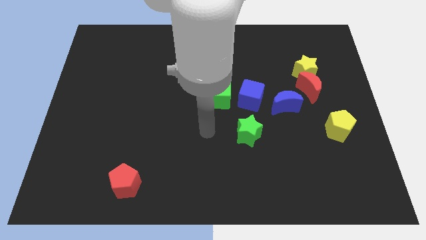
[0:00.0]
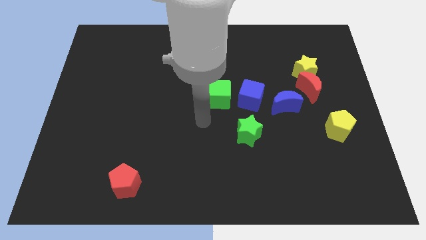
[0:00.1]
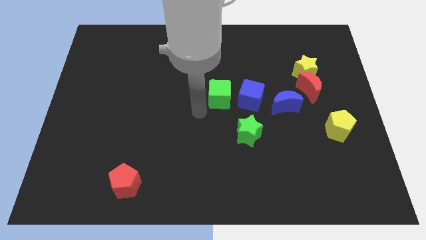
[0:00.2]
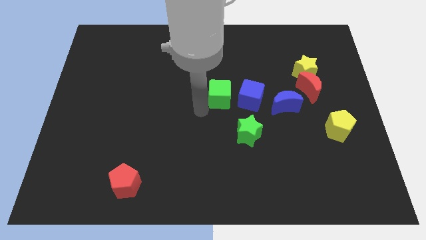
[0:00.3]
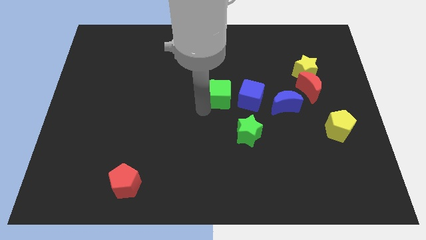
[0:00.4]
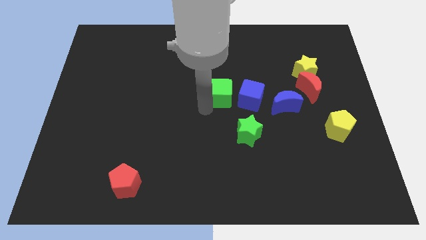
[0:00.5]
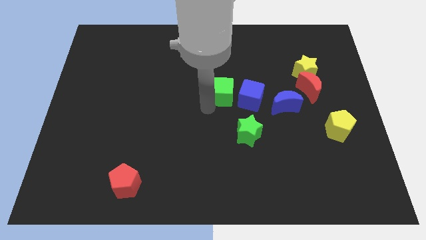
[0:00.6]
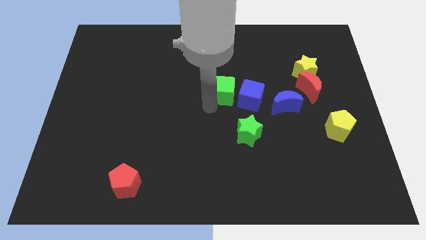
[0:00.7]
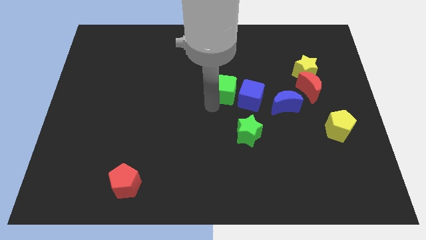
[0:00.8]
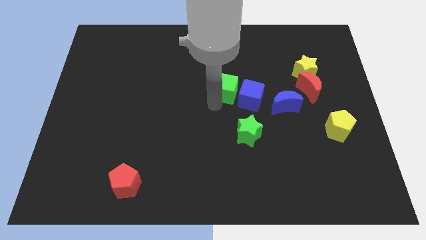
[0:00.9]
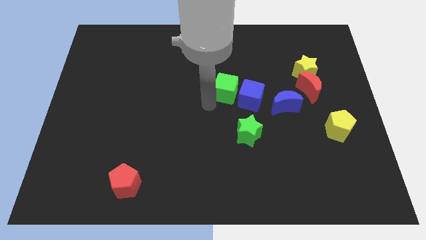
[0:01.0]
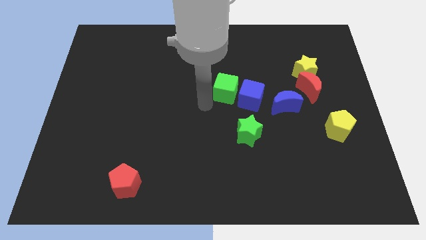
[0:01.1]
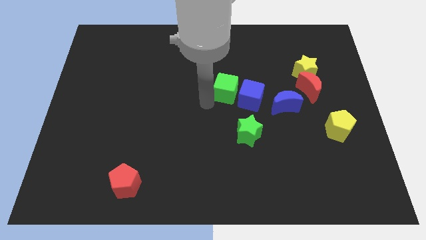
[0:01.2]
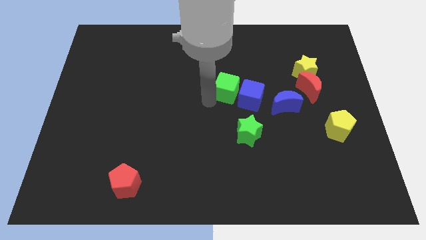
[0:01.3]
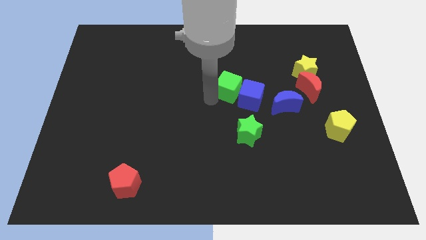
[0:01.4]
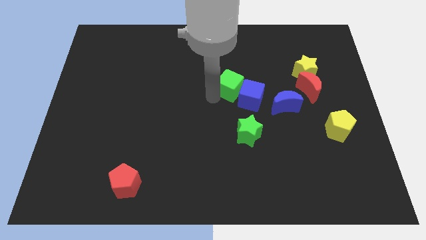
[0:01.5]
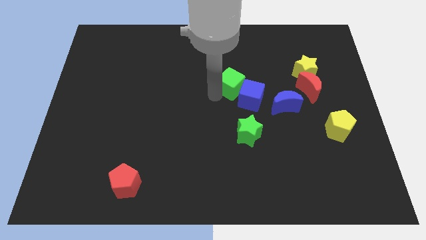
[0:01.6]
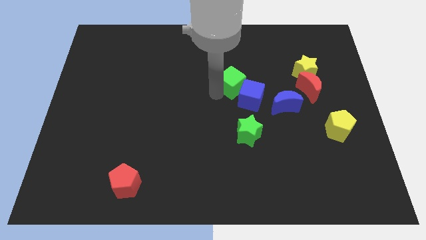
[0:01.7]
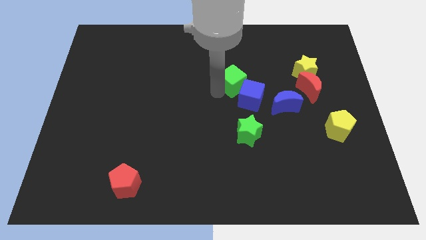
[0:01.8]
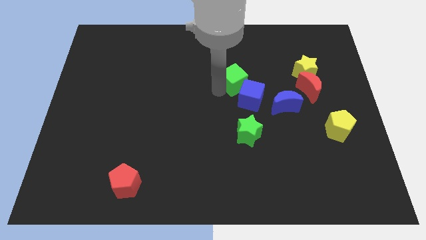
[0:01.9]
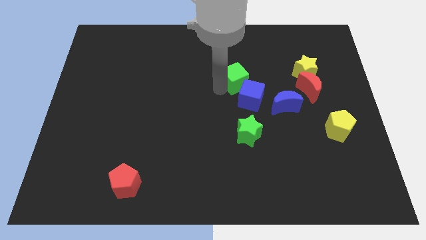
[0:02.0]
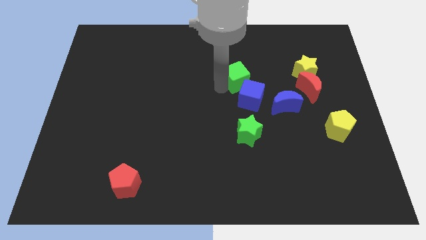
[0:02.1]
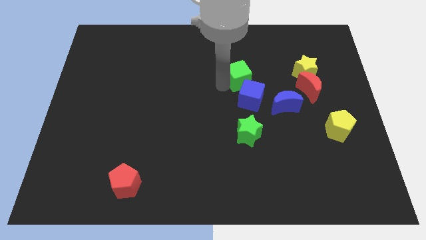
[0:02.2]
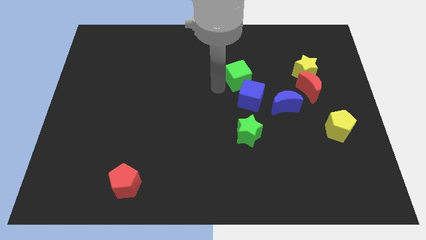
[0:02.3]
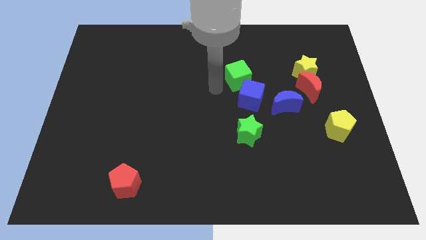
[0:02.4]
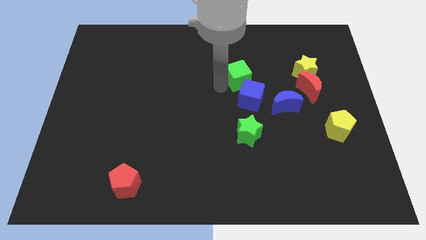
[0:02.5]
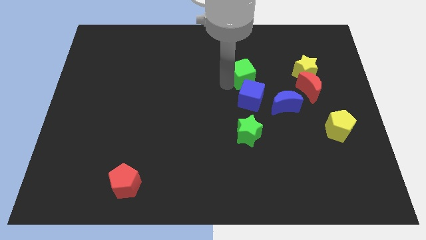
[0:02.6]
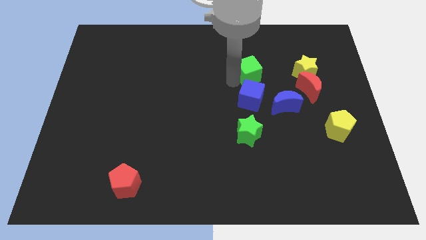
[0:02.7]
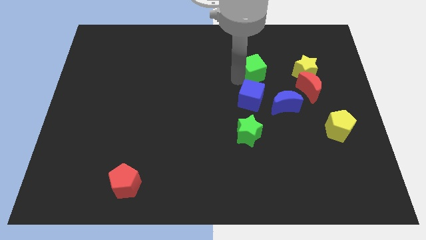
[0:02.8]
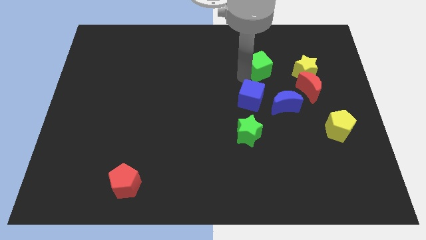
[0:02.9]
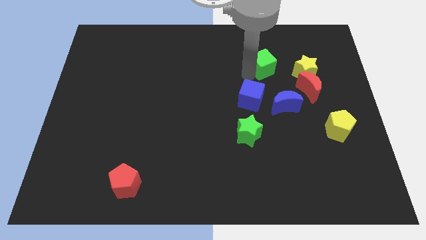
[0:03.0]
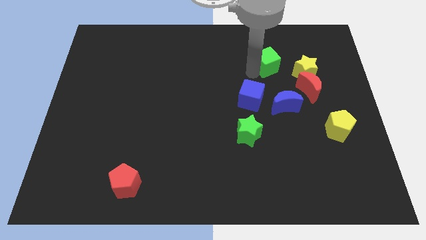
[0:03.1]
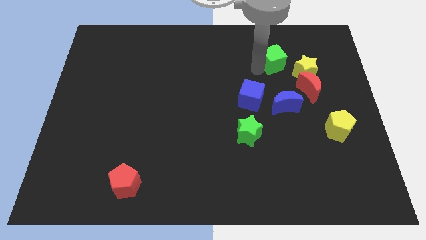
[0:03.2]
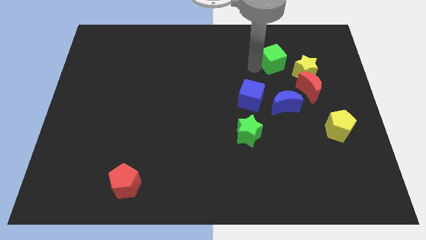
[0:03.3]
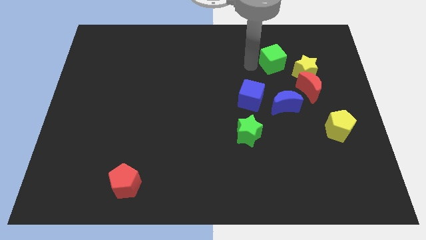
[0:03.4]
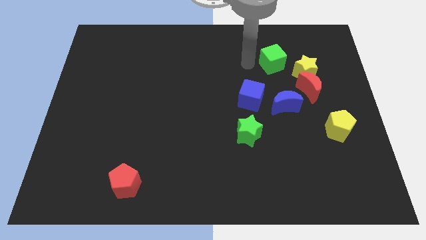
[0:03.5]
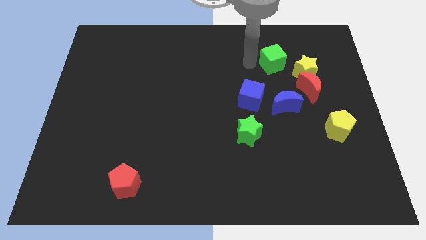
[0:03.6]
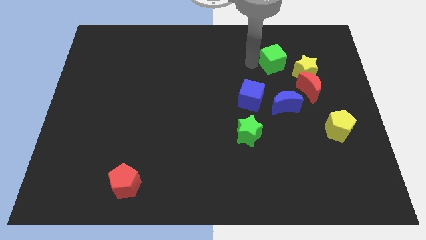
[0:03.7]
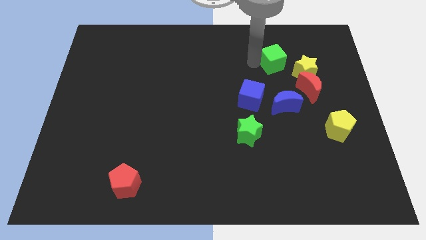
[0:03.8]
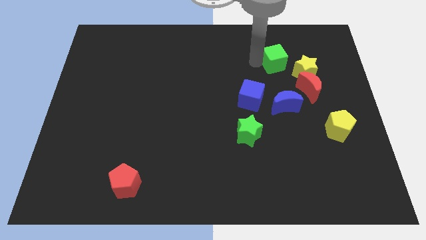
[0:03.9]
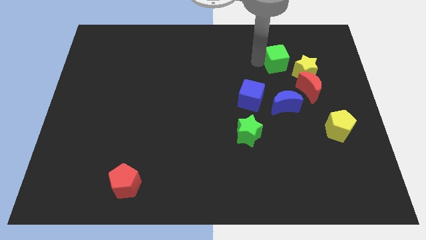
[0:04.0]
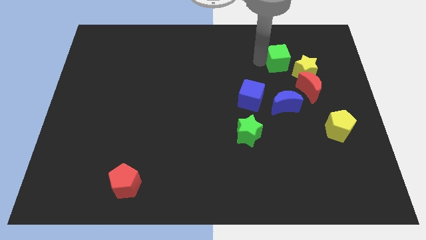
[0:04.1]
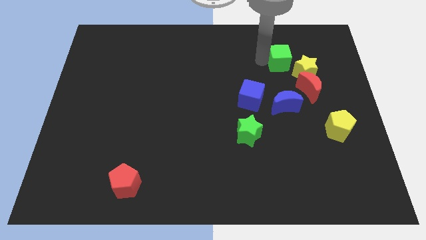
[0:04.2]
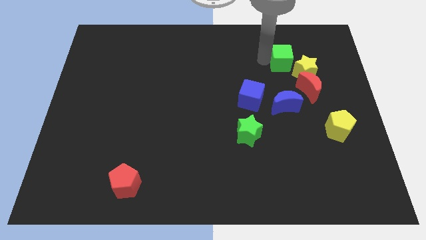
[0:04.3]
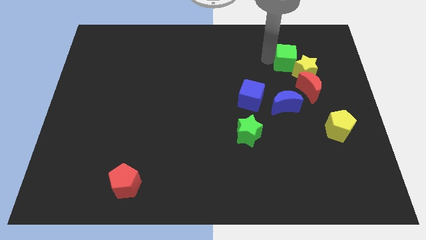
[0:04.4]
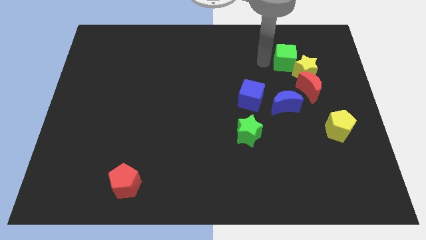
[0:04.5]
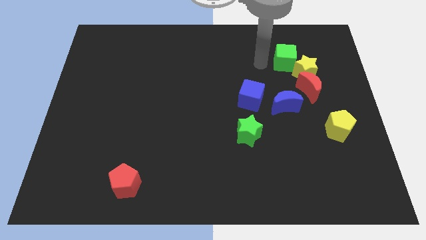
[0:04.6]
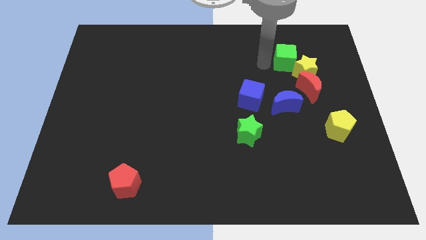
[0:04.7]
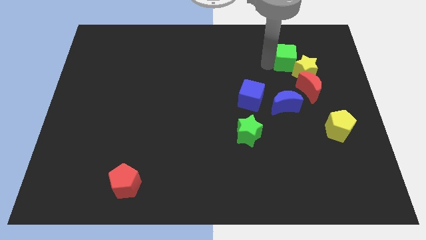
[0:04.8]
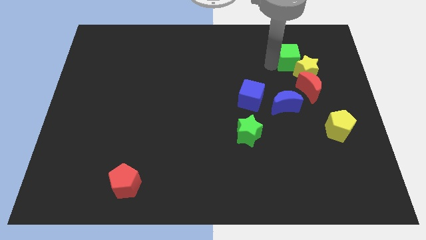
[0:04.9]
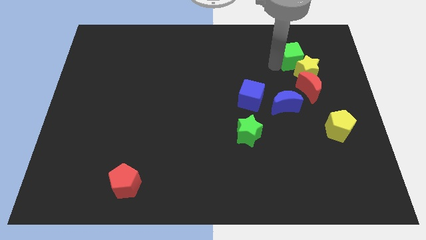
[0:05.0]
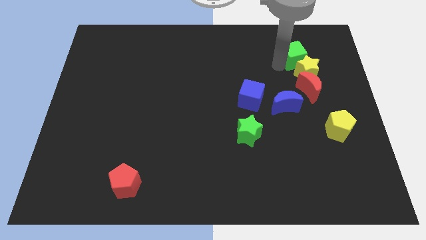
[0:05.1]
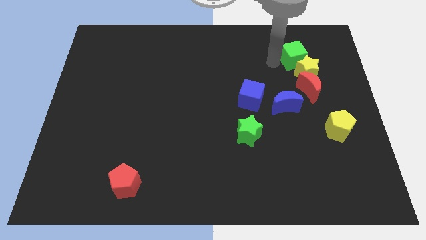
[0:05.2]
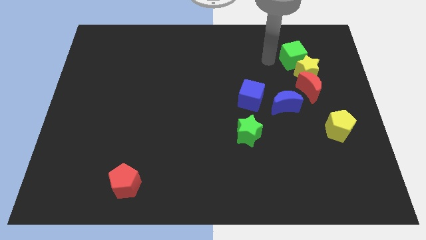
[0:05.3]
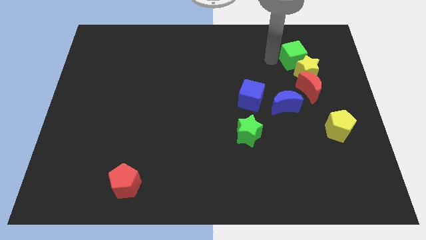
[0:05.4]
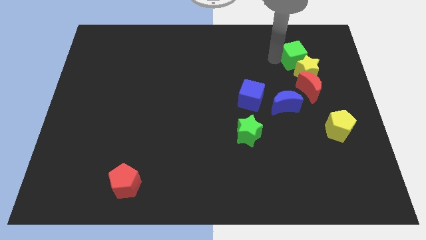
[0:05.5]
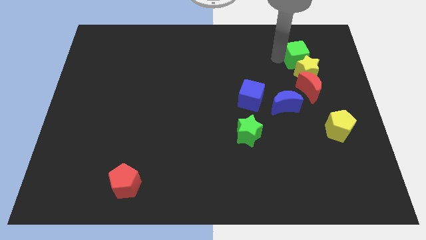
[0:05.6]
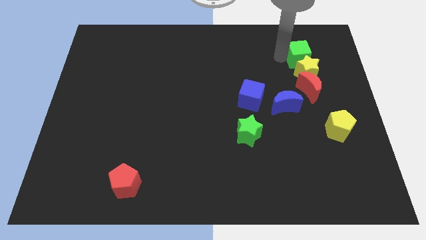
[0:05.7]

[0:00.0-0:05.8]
put the green cube diagonally up and to the right of the yellow star

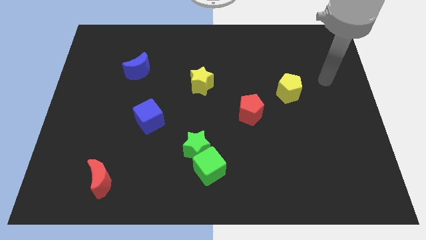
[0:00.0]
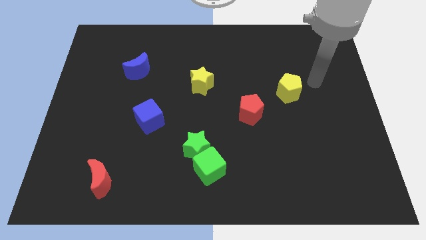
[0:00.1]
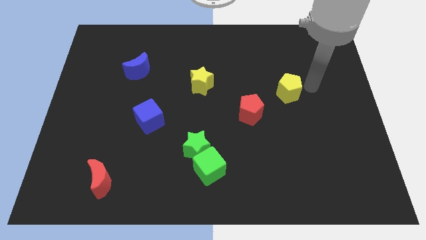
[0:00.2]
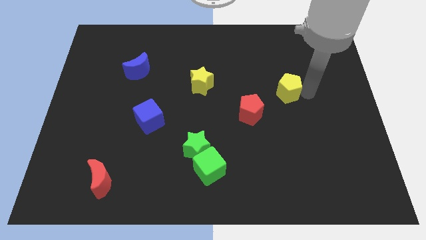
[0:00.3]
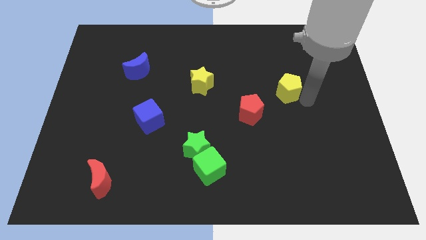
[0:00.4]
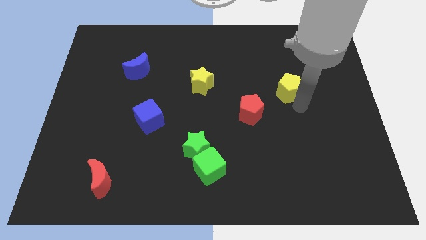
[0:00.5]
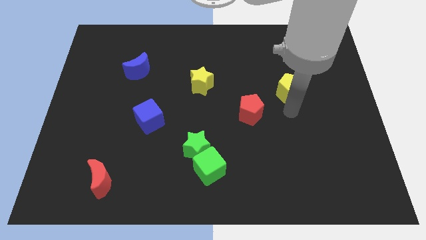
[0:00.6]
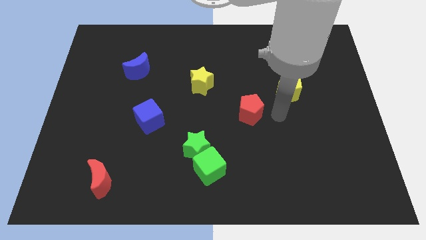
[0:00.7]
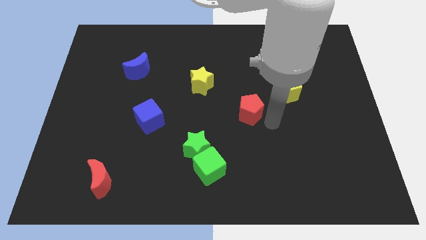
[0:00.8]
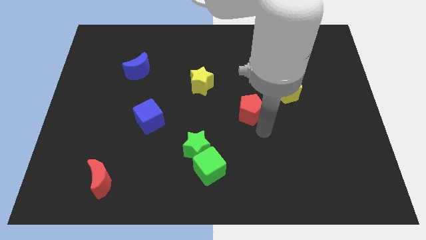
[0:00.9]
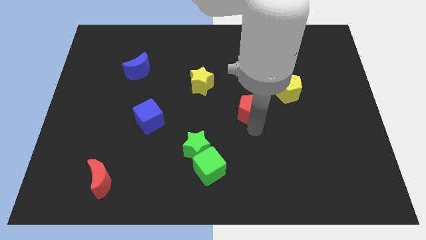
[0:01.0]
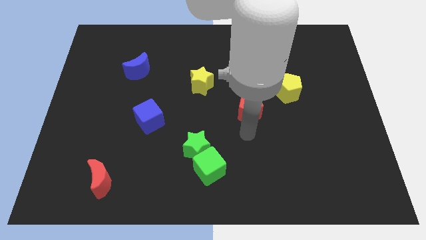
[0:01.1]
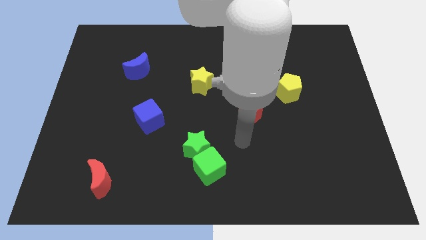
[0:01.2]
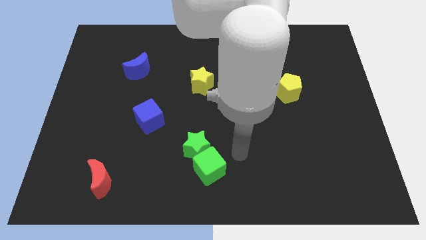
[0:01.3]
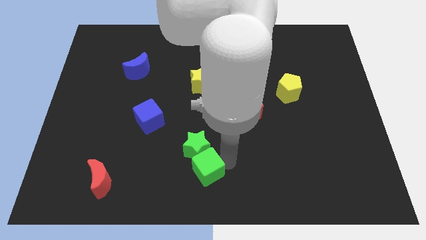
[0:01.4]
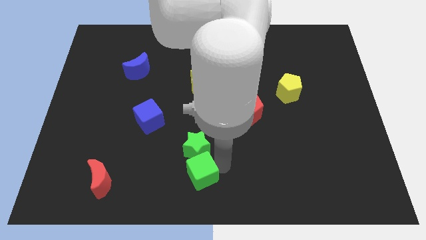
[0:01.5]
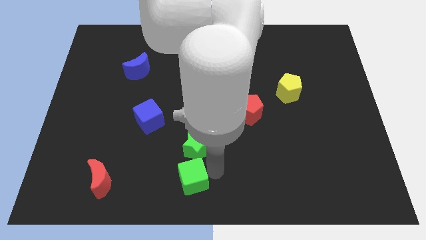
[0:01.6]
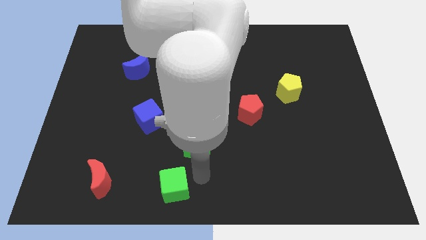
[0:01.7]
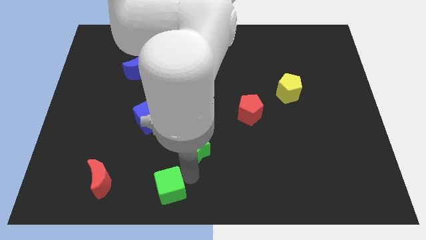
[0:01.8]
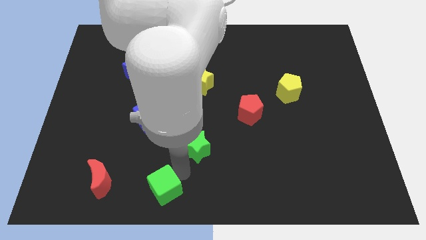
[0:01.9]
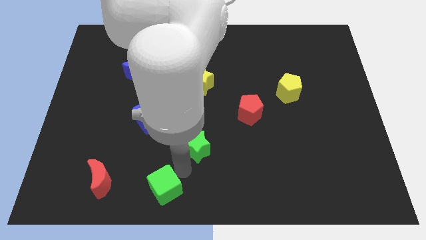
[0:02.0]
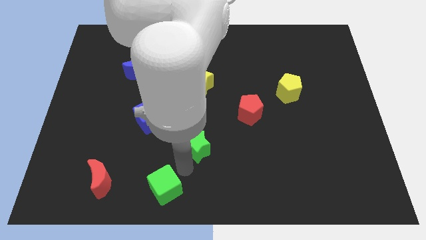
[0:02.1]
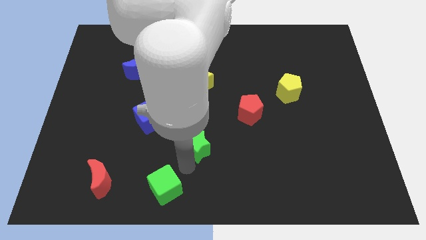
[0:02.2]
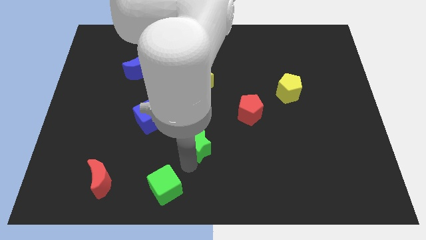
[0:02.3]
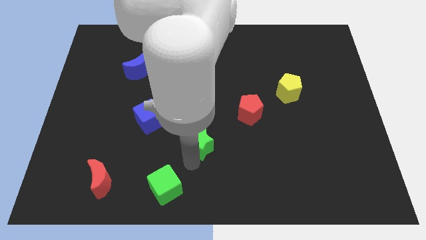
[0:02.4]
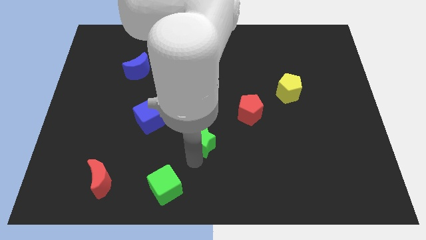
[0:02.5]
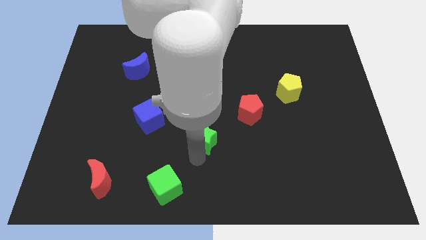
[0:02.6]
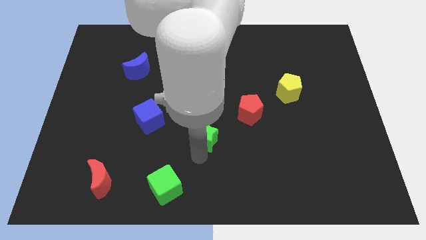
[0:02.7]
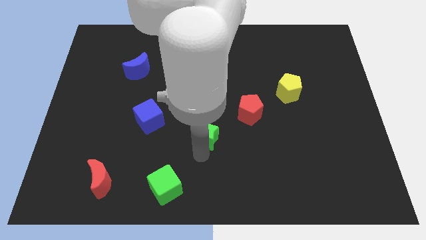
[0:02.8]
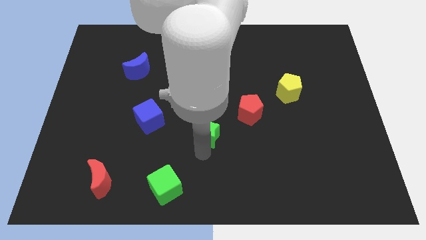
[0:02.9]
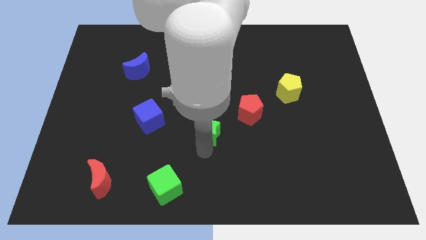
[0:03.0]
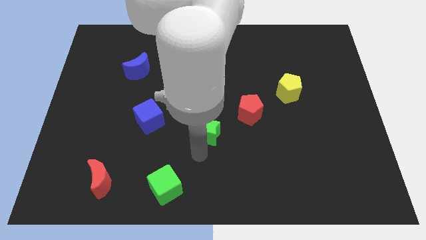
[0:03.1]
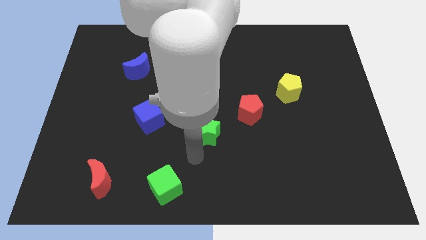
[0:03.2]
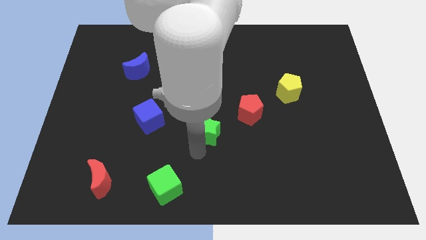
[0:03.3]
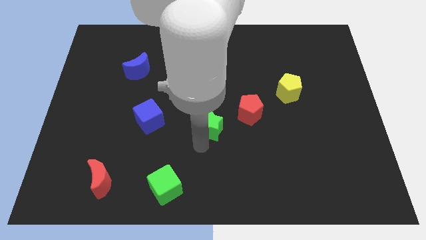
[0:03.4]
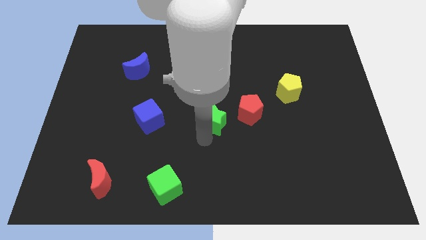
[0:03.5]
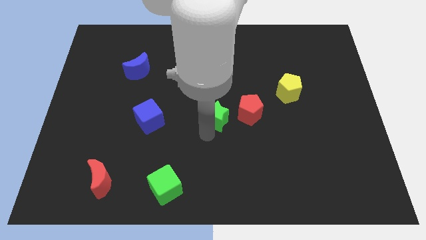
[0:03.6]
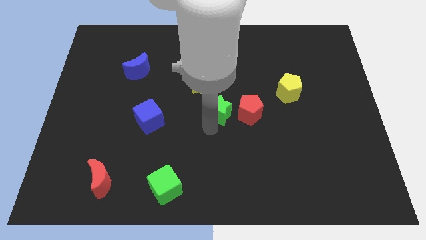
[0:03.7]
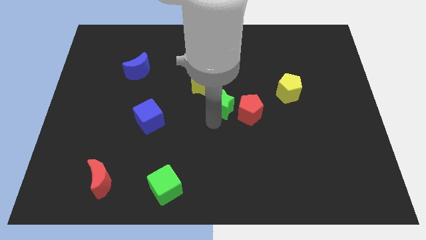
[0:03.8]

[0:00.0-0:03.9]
move the green star to the top left of the red pentagon
